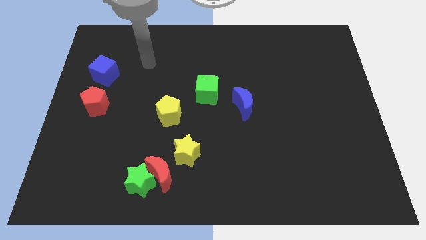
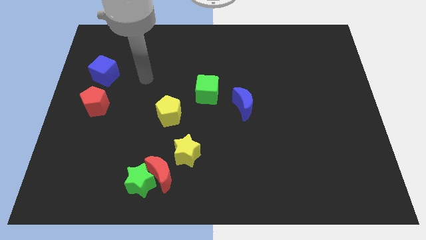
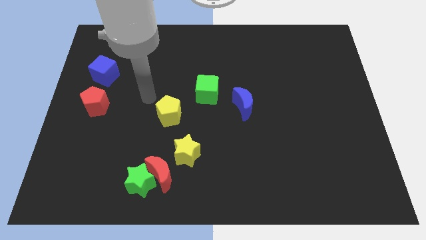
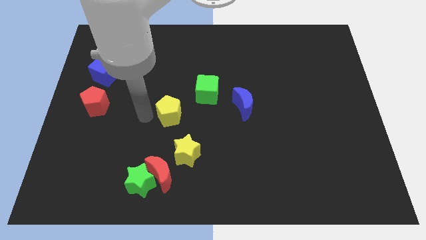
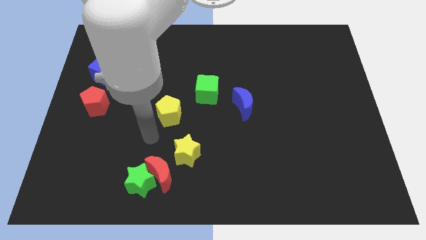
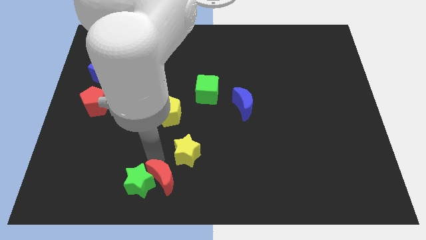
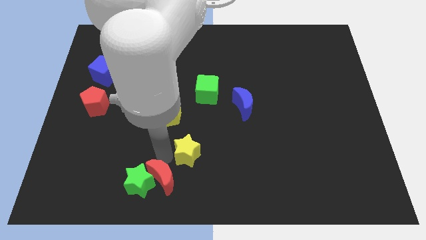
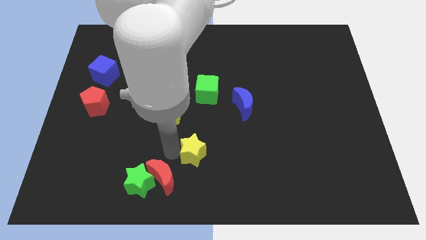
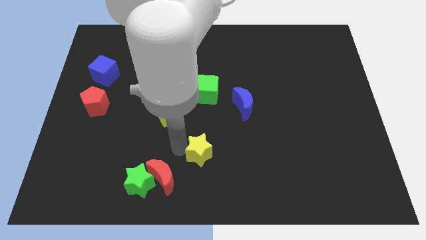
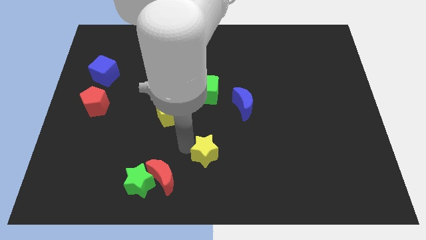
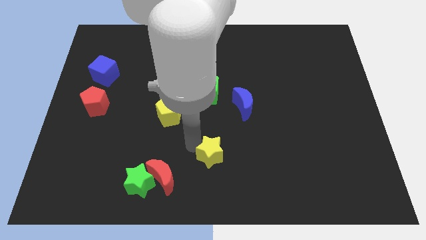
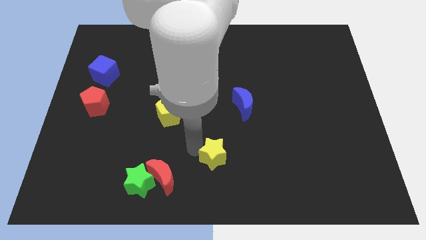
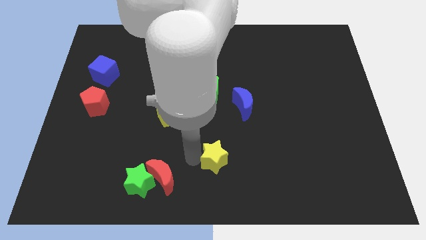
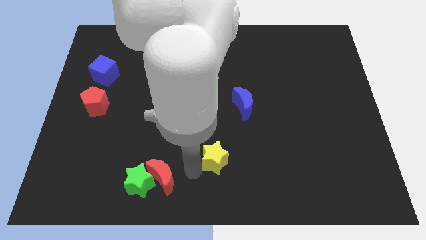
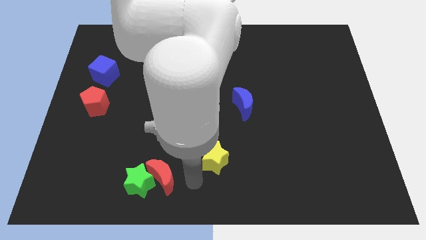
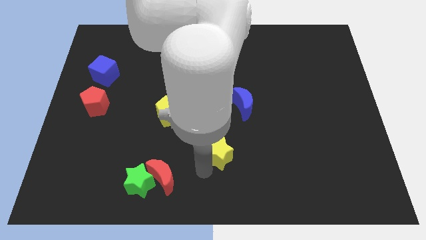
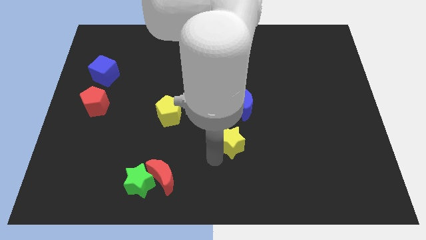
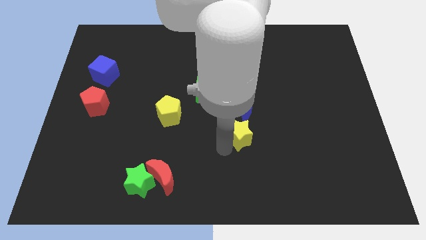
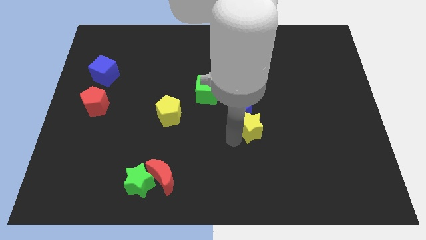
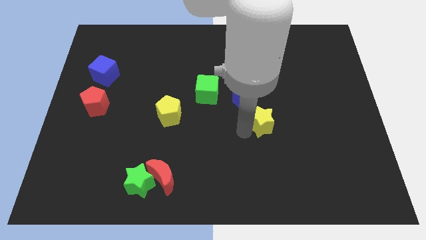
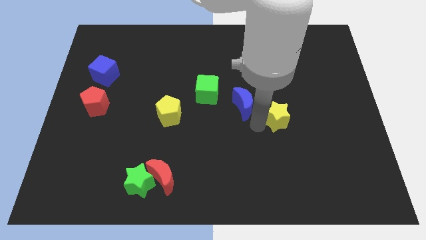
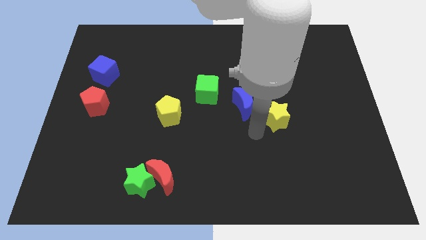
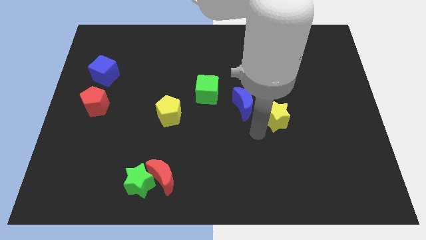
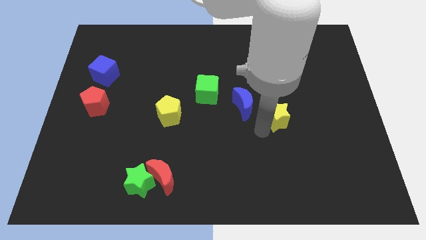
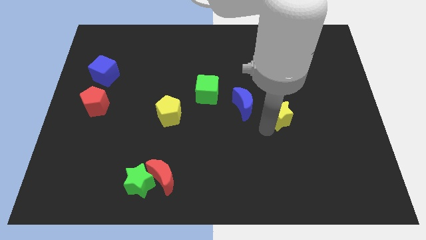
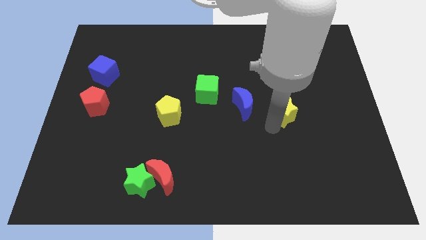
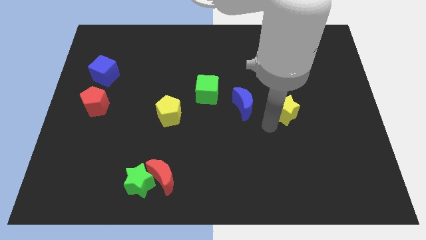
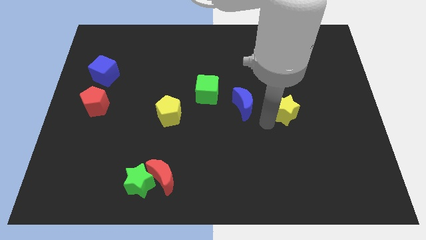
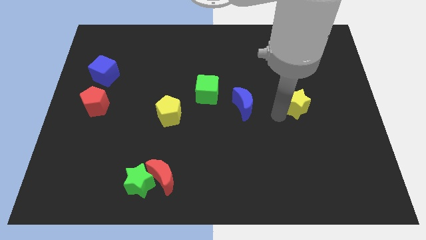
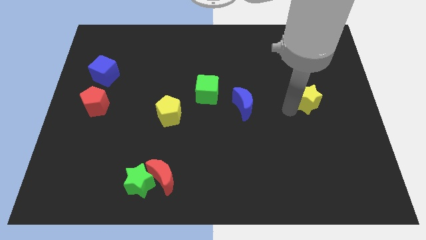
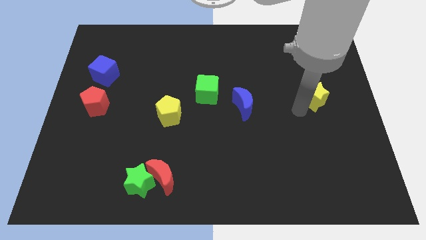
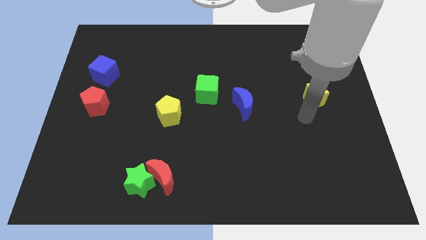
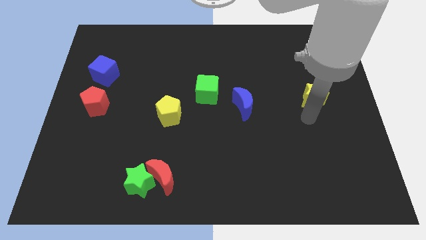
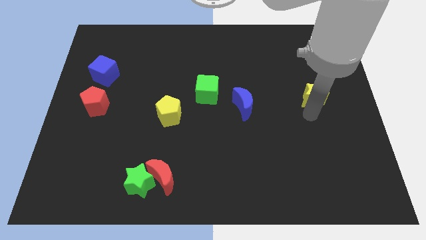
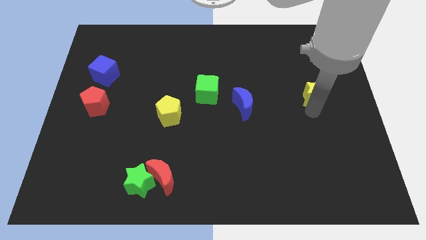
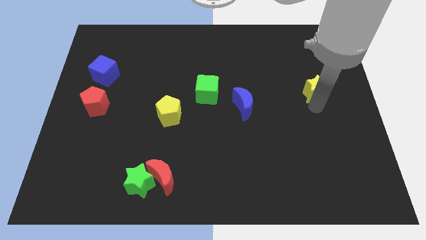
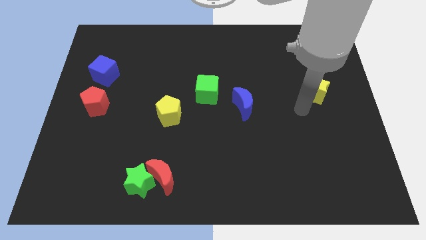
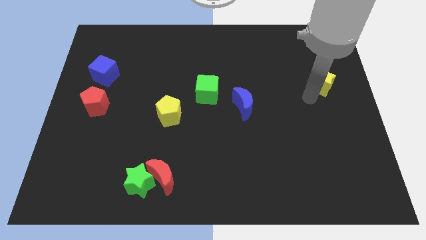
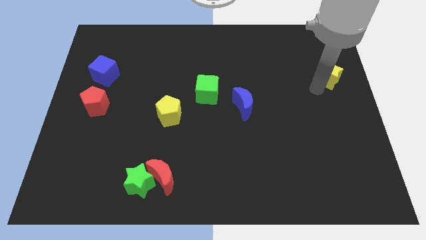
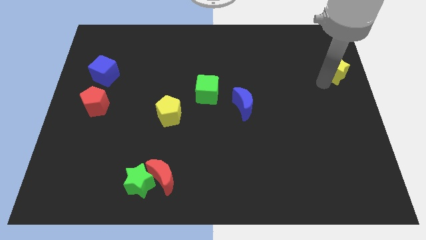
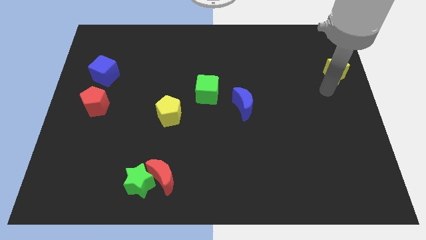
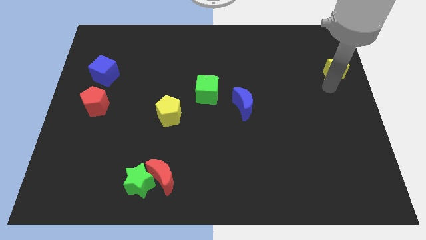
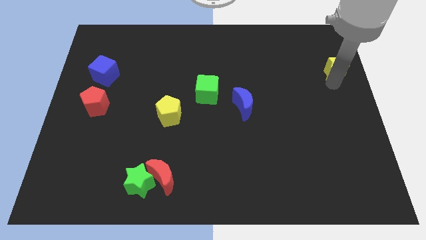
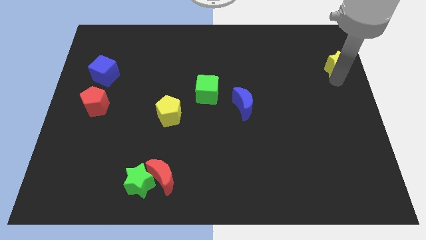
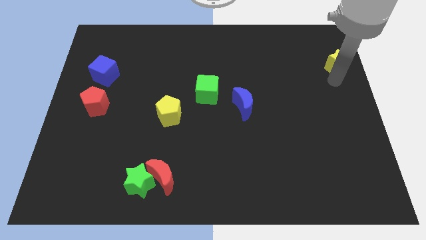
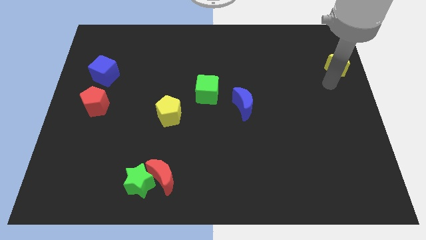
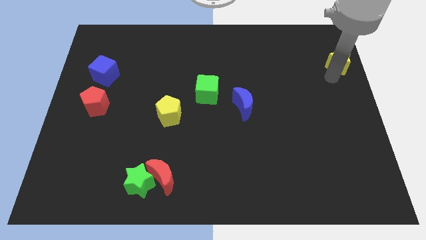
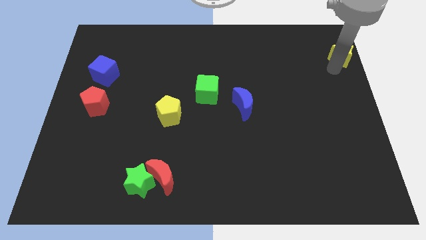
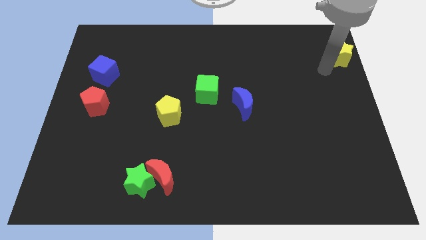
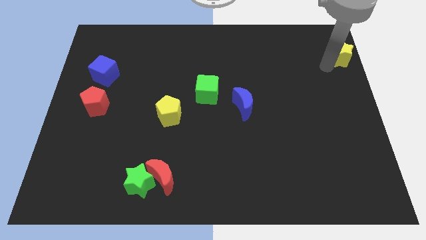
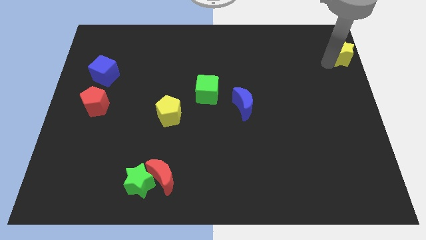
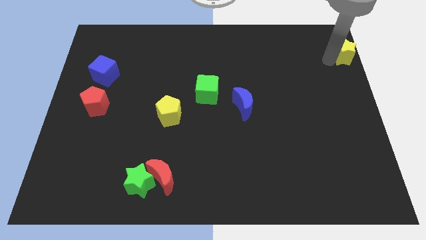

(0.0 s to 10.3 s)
push the yellow star to the top right

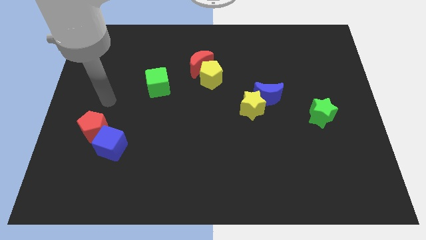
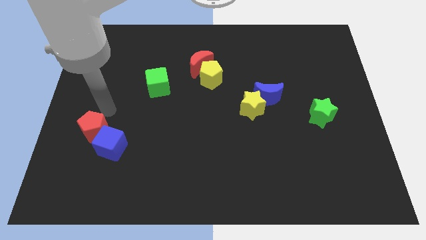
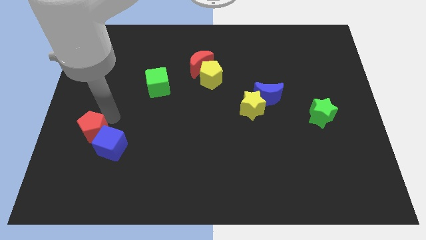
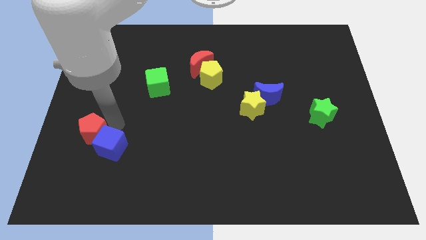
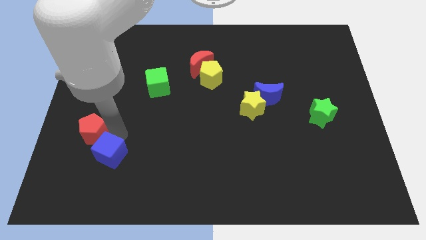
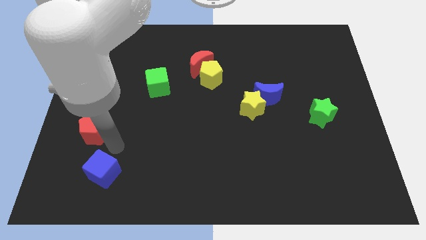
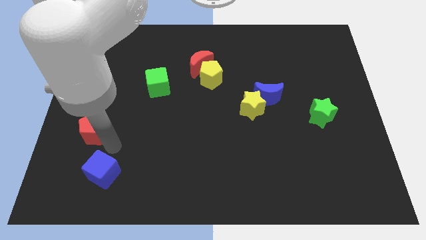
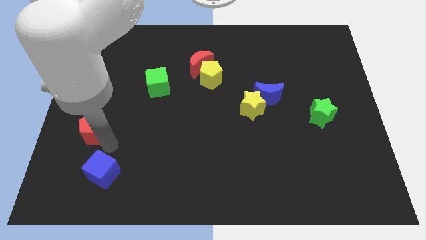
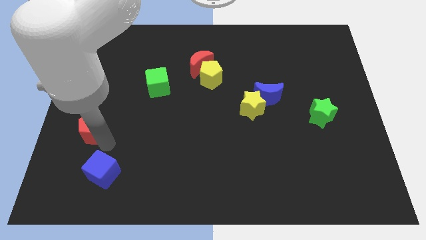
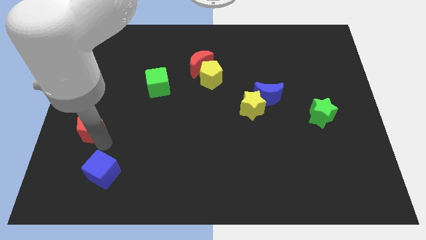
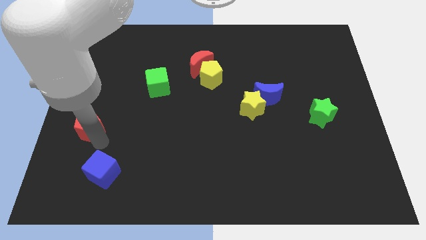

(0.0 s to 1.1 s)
slide the red pentagon to the left side
